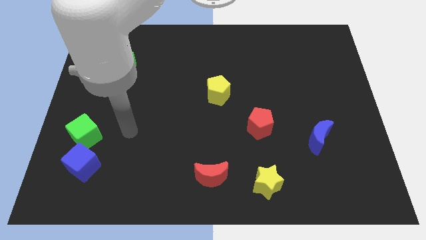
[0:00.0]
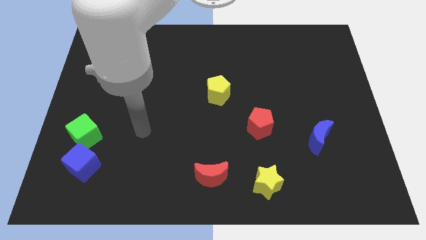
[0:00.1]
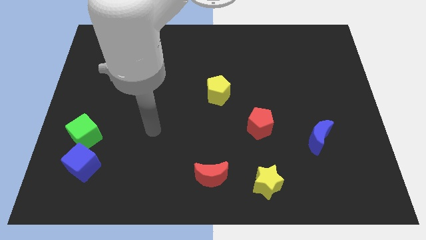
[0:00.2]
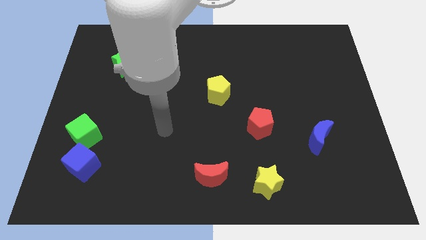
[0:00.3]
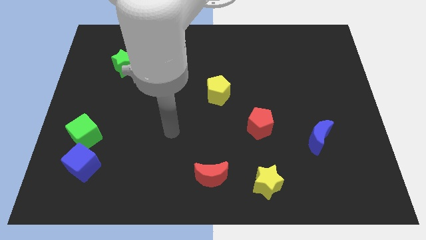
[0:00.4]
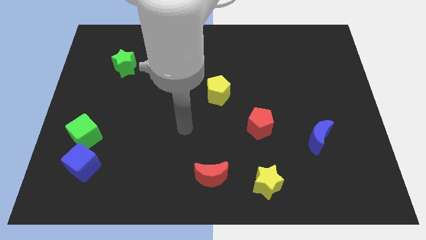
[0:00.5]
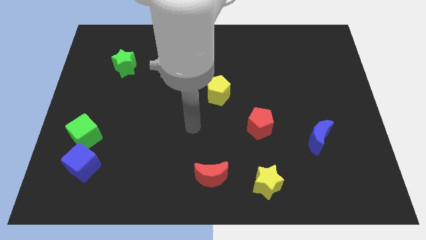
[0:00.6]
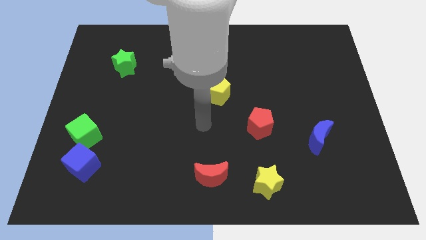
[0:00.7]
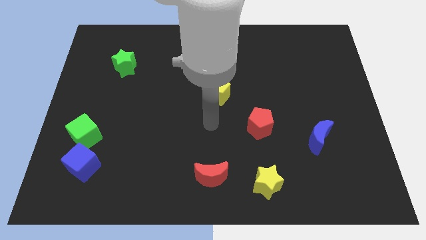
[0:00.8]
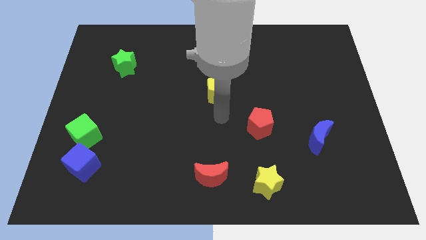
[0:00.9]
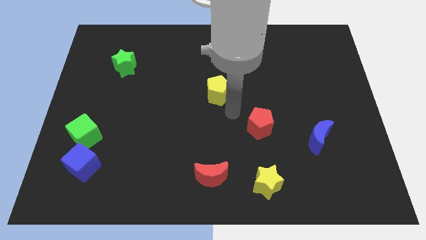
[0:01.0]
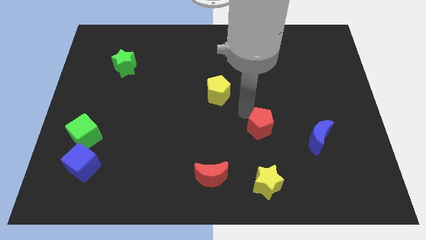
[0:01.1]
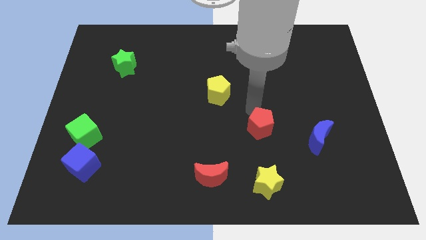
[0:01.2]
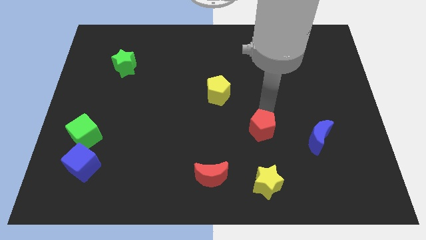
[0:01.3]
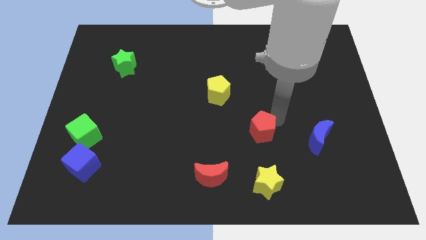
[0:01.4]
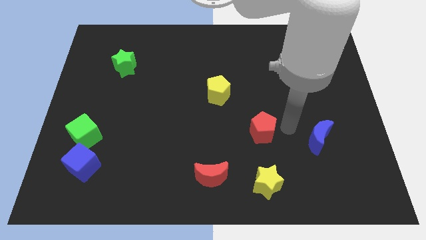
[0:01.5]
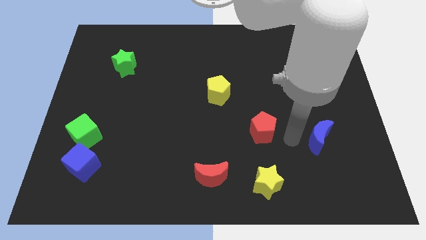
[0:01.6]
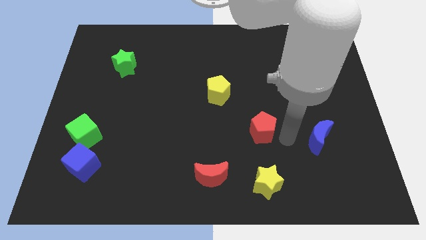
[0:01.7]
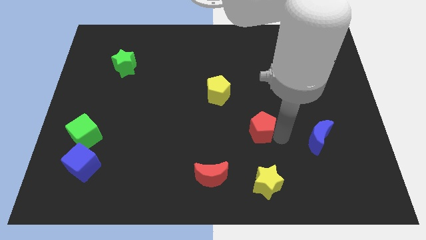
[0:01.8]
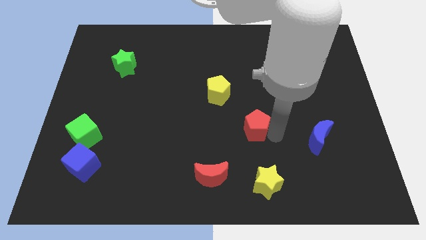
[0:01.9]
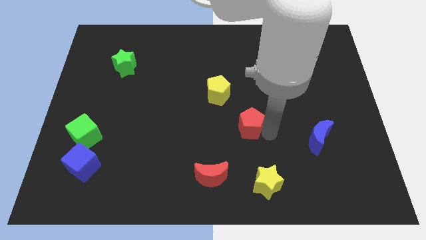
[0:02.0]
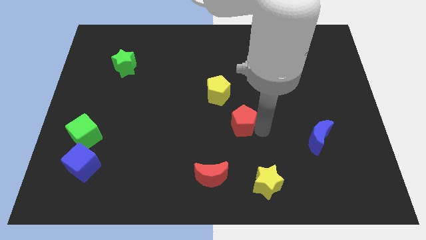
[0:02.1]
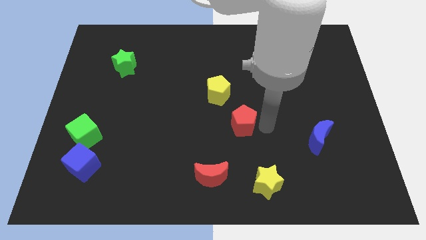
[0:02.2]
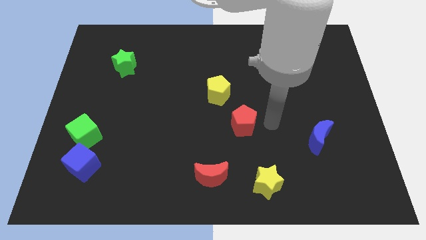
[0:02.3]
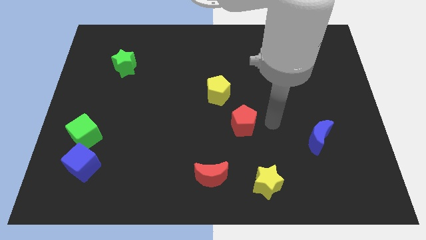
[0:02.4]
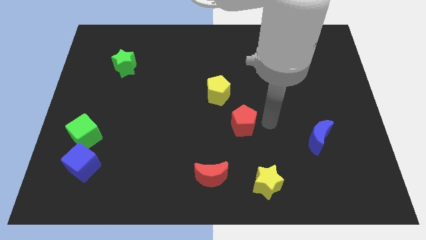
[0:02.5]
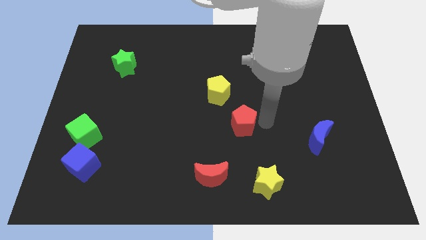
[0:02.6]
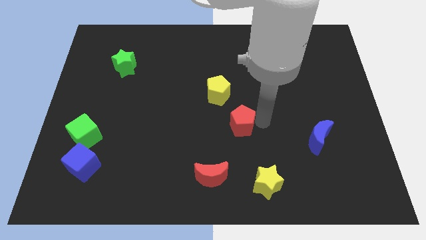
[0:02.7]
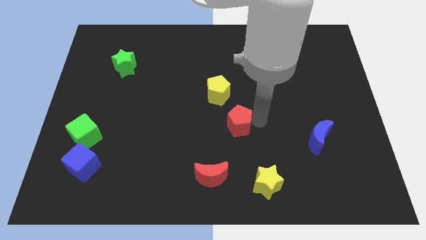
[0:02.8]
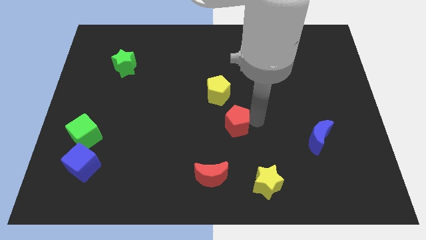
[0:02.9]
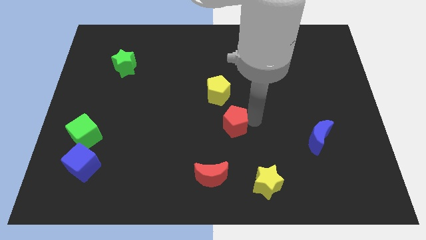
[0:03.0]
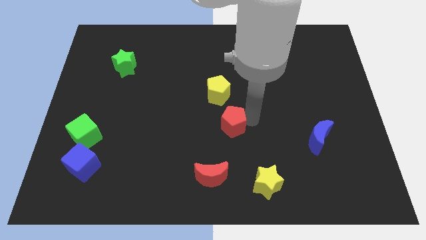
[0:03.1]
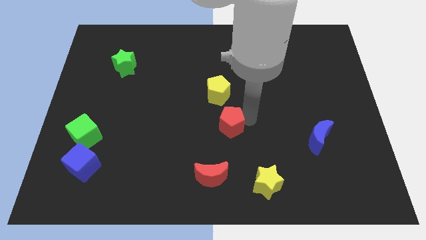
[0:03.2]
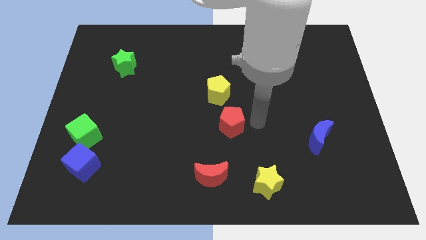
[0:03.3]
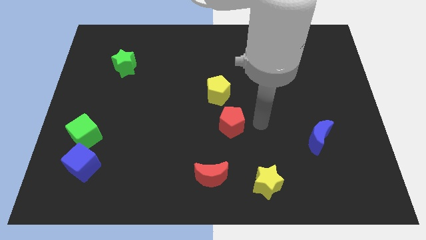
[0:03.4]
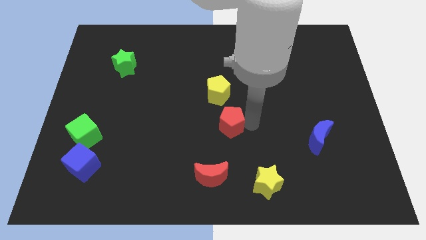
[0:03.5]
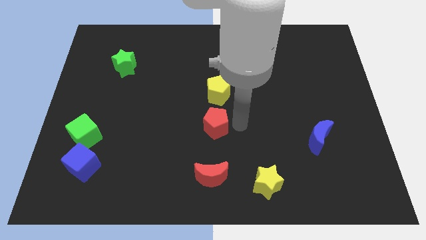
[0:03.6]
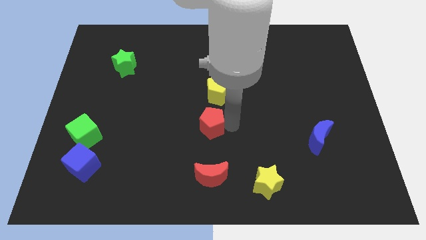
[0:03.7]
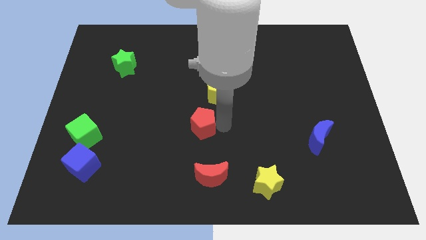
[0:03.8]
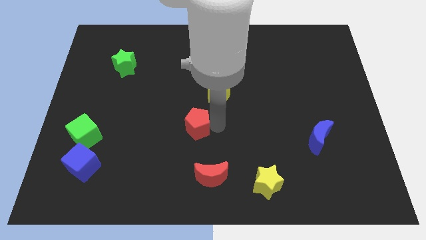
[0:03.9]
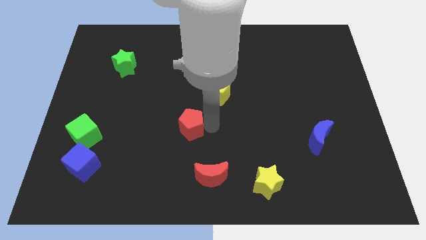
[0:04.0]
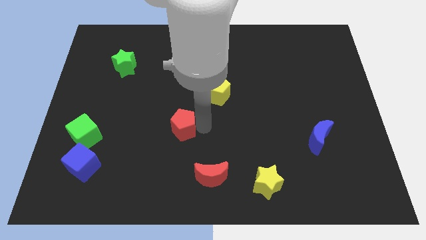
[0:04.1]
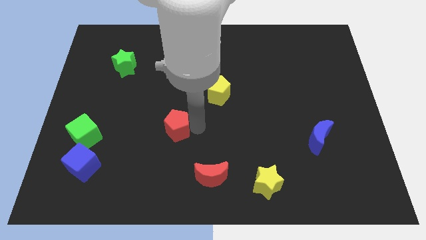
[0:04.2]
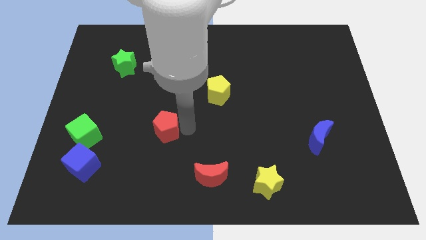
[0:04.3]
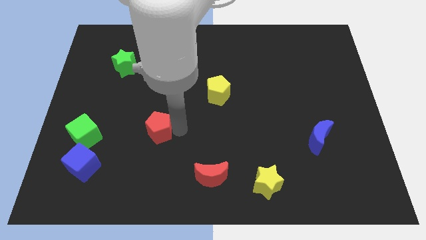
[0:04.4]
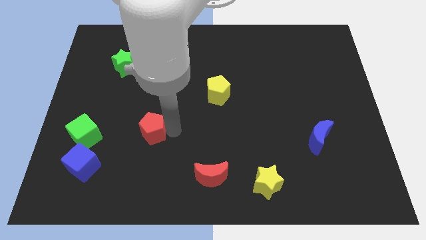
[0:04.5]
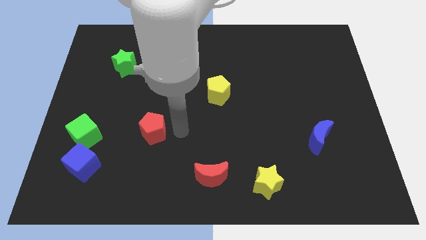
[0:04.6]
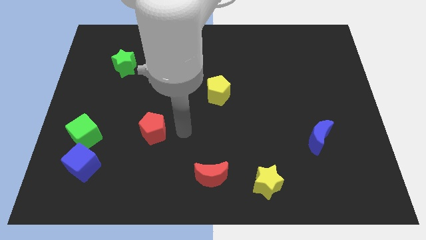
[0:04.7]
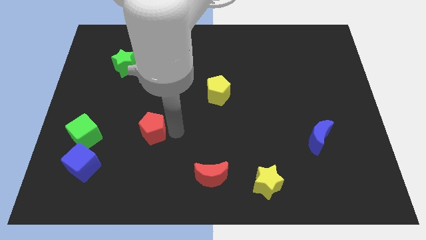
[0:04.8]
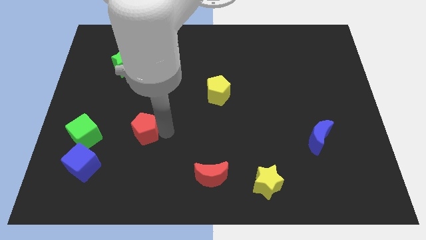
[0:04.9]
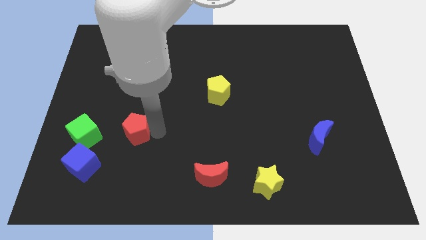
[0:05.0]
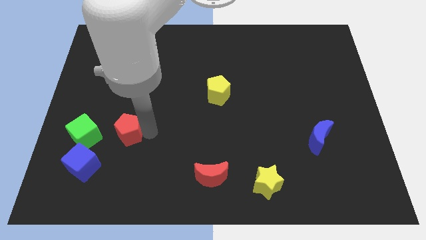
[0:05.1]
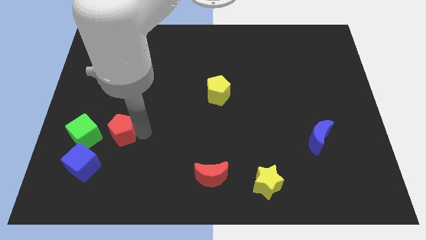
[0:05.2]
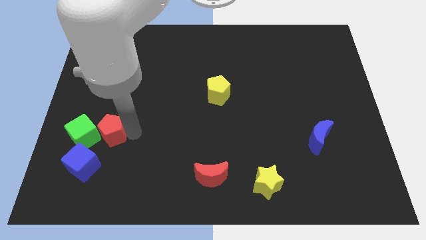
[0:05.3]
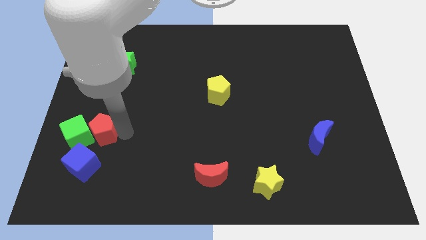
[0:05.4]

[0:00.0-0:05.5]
slide the red pentagon to the green cube
